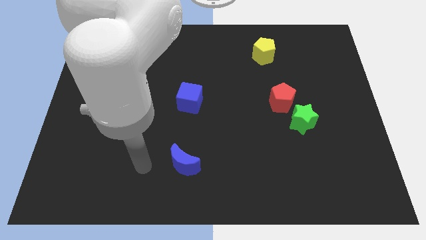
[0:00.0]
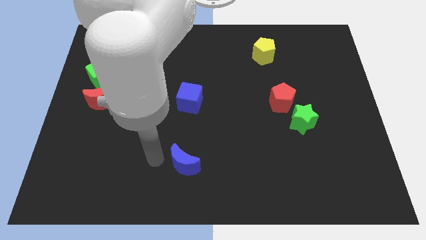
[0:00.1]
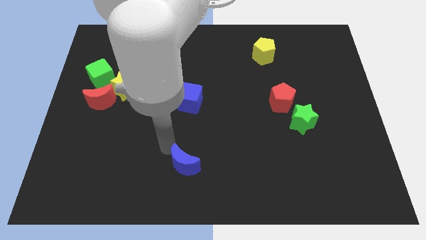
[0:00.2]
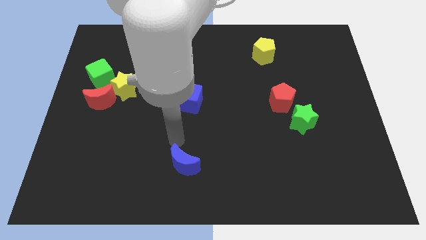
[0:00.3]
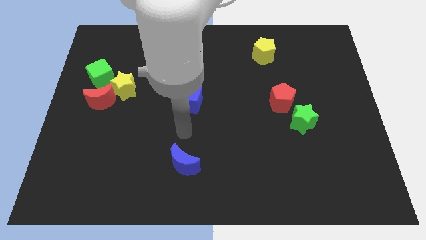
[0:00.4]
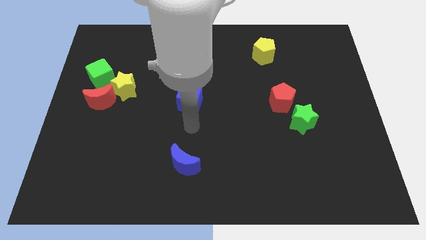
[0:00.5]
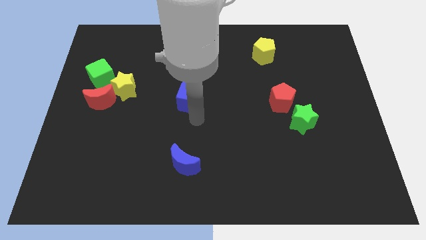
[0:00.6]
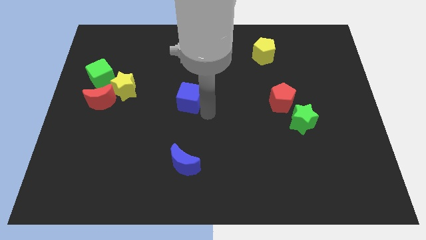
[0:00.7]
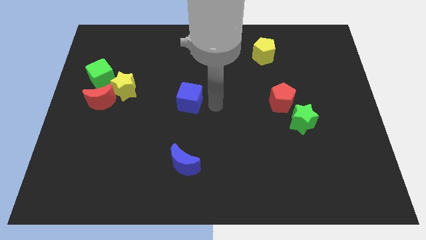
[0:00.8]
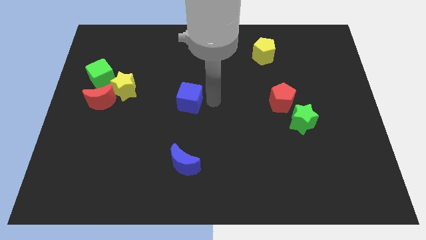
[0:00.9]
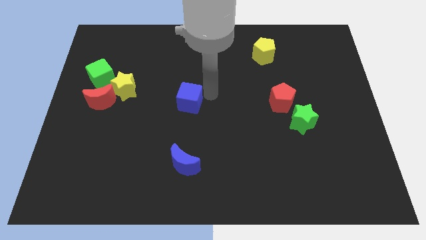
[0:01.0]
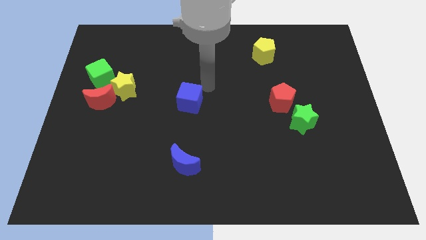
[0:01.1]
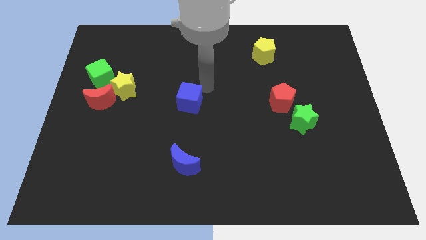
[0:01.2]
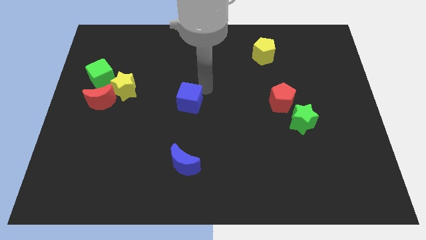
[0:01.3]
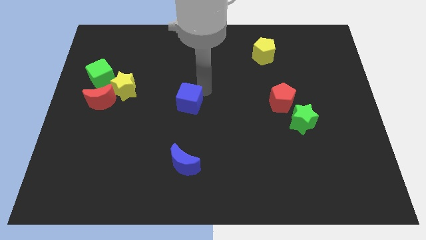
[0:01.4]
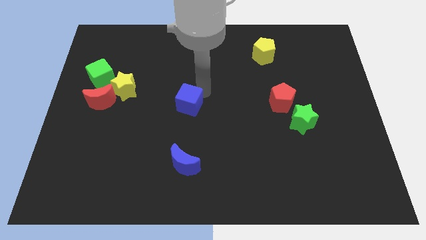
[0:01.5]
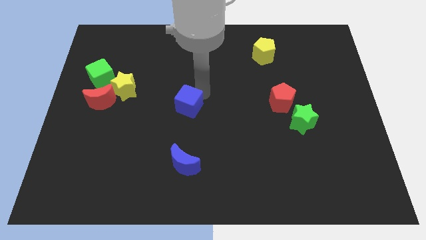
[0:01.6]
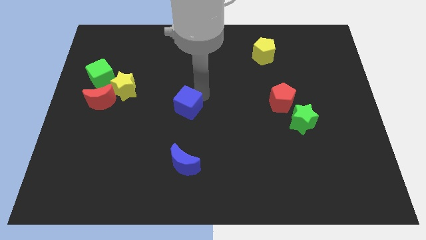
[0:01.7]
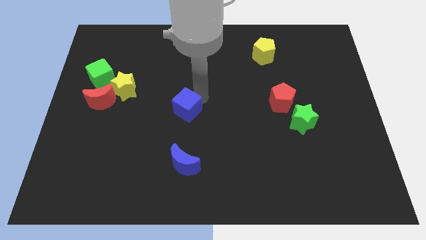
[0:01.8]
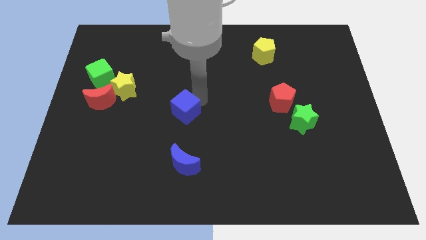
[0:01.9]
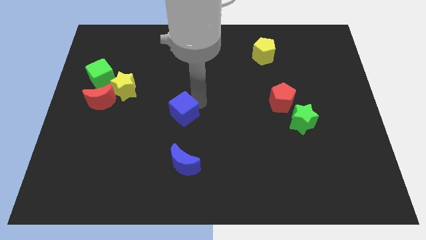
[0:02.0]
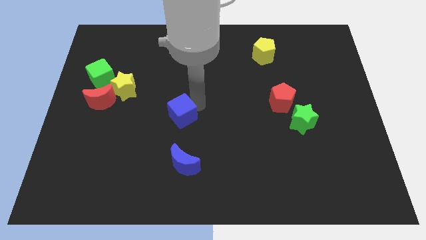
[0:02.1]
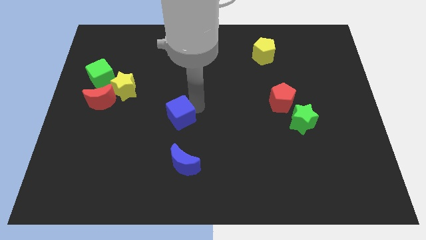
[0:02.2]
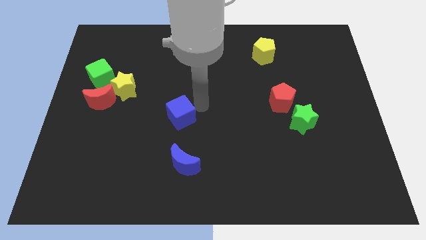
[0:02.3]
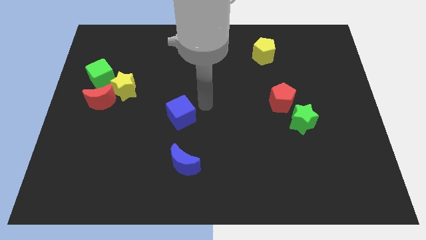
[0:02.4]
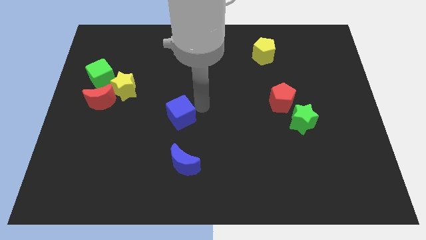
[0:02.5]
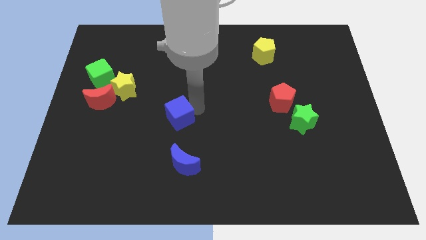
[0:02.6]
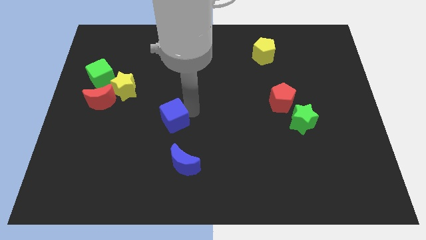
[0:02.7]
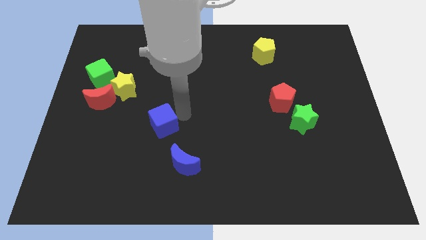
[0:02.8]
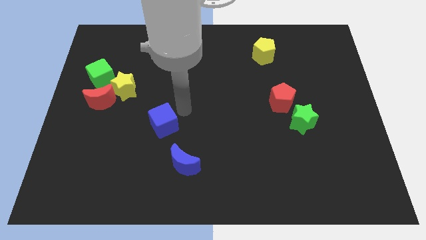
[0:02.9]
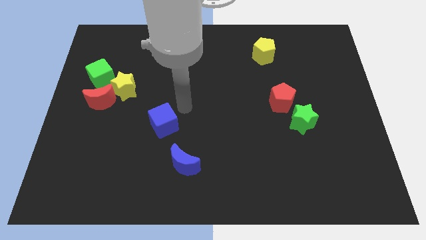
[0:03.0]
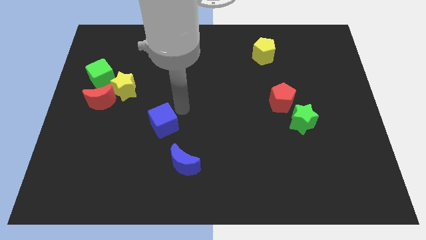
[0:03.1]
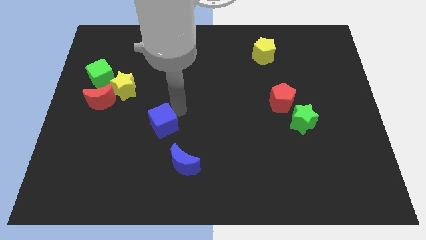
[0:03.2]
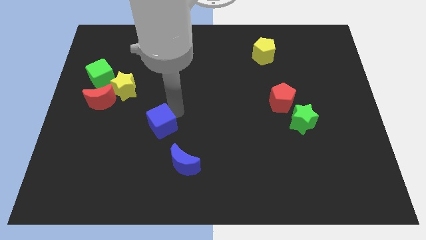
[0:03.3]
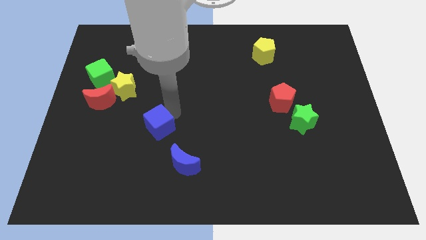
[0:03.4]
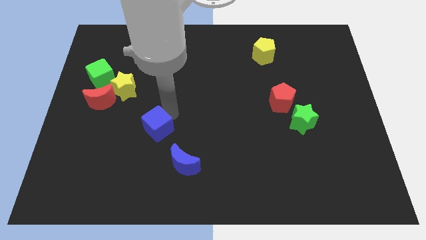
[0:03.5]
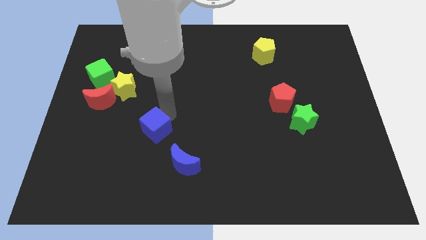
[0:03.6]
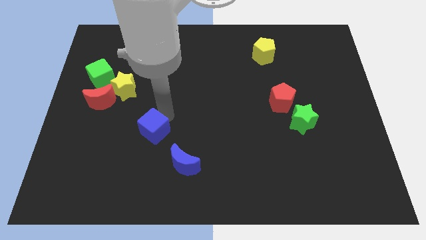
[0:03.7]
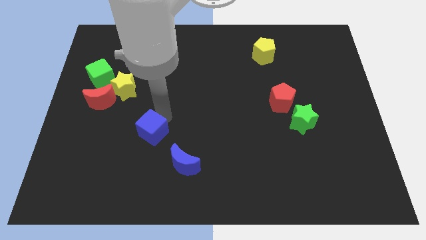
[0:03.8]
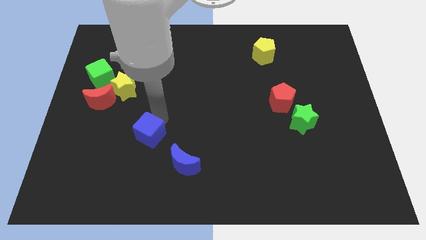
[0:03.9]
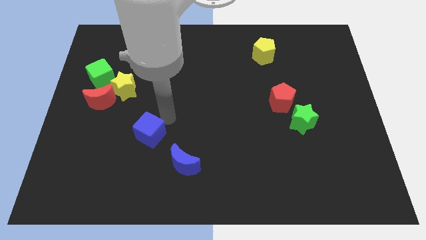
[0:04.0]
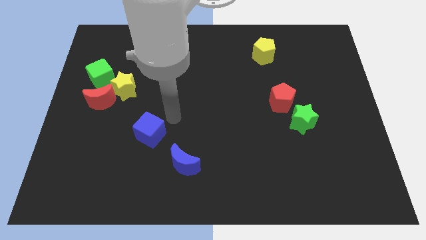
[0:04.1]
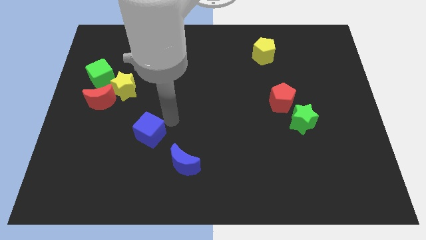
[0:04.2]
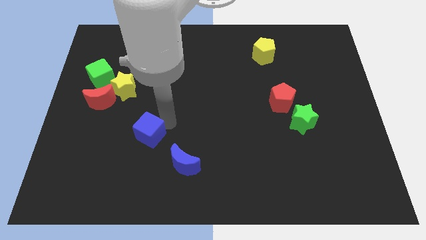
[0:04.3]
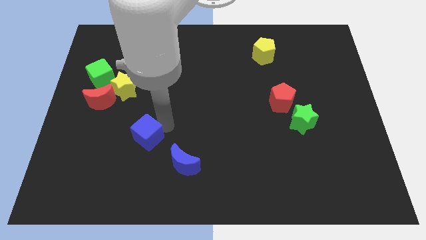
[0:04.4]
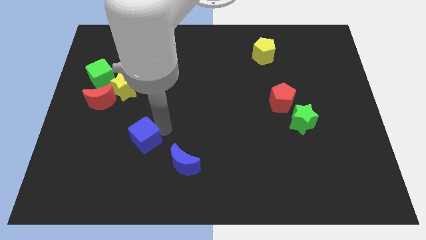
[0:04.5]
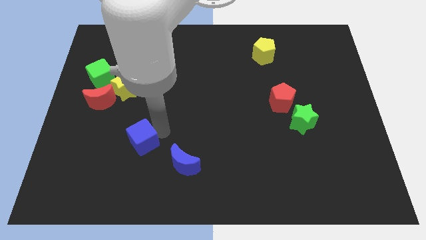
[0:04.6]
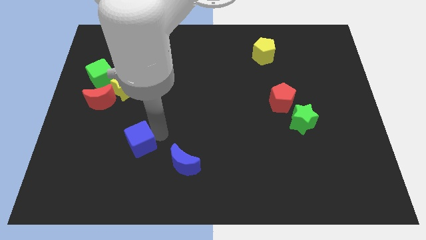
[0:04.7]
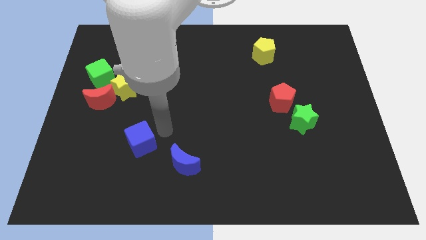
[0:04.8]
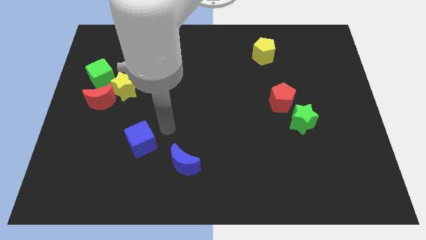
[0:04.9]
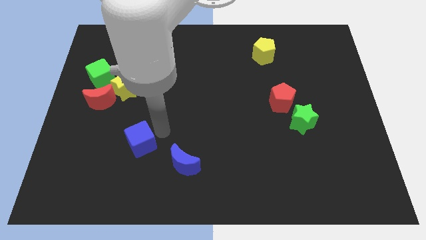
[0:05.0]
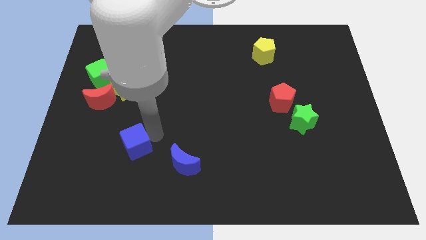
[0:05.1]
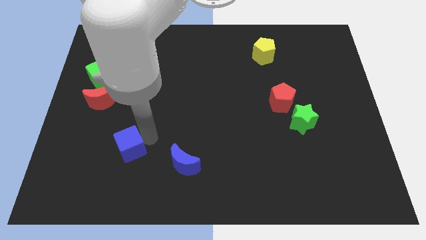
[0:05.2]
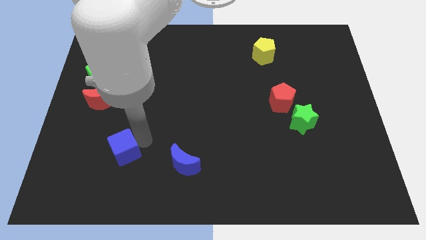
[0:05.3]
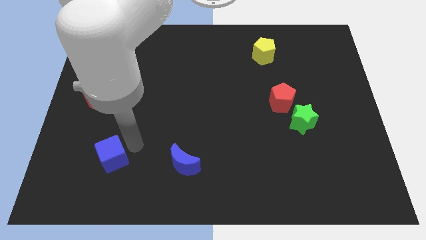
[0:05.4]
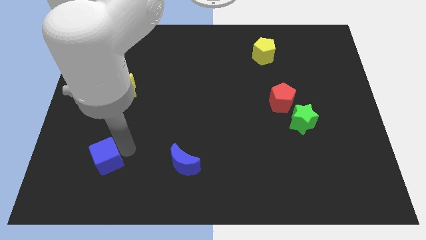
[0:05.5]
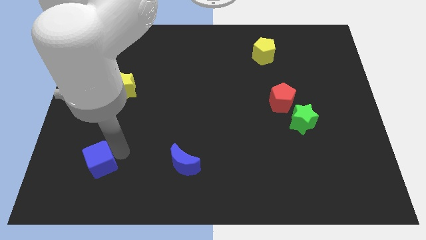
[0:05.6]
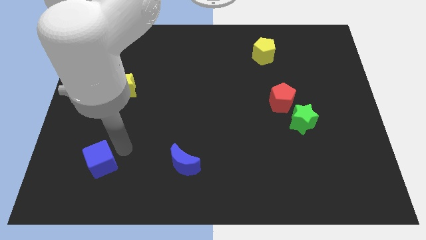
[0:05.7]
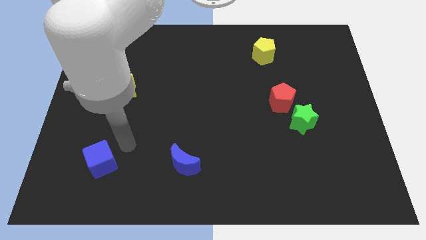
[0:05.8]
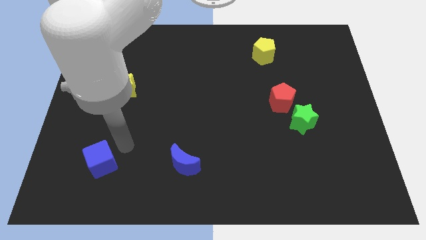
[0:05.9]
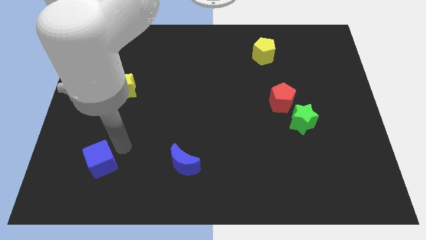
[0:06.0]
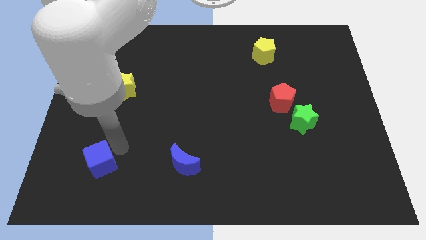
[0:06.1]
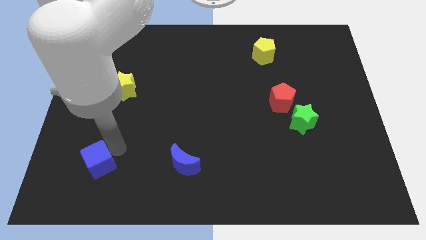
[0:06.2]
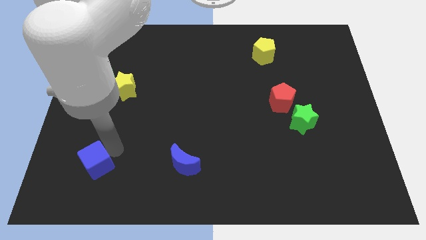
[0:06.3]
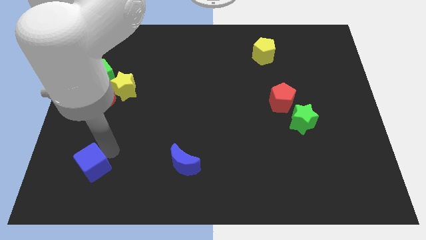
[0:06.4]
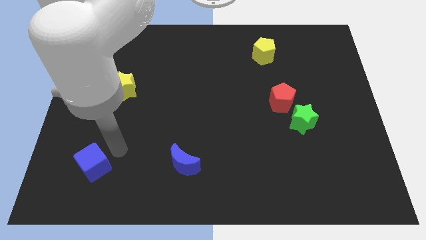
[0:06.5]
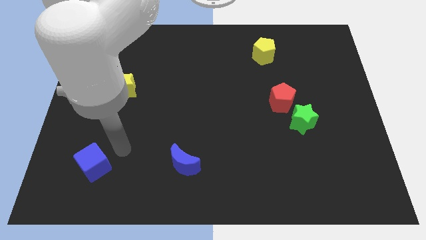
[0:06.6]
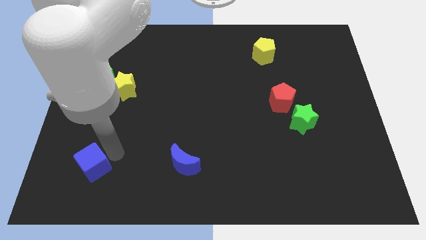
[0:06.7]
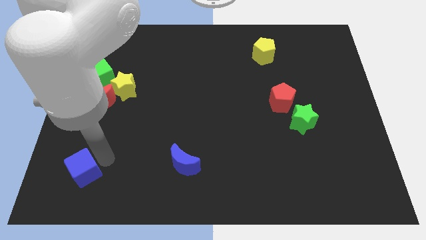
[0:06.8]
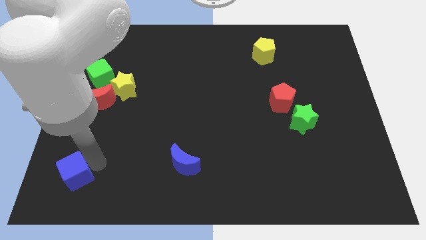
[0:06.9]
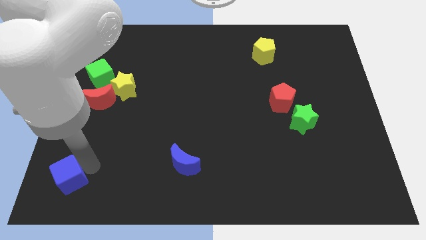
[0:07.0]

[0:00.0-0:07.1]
push the blue cube to the bottom left corner
